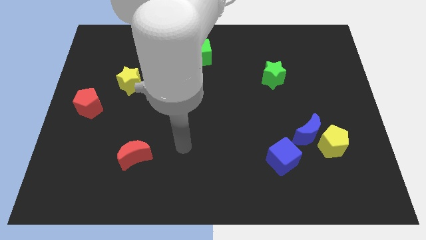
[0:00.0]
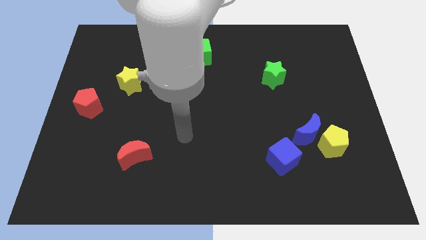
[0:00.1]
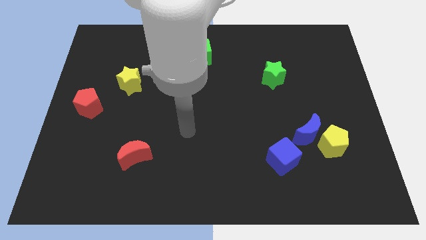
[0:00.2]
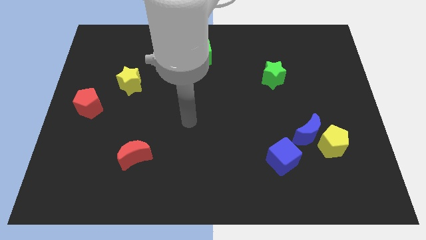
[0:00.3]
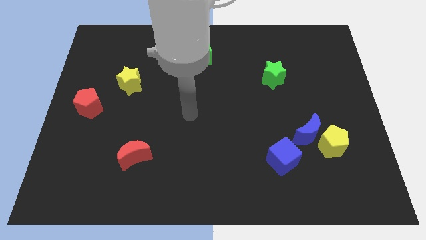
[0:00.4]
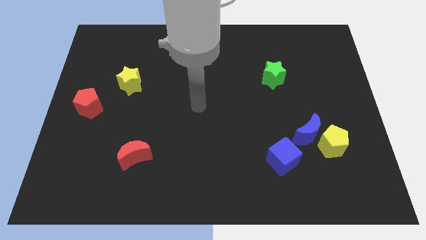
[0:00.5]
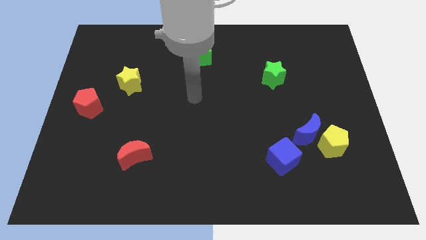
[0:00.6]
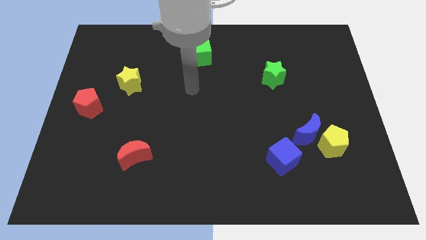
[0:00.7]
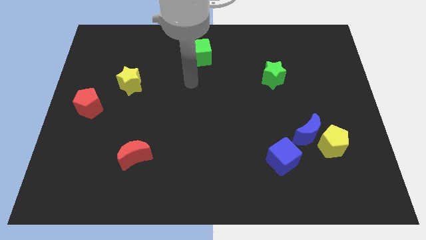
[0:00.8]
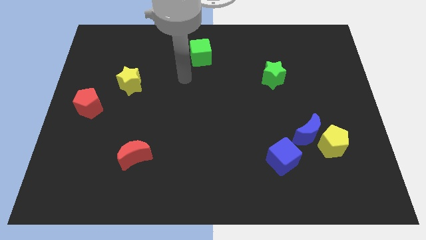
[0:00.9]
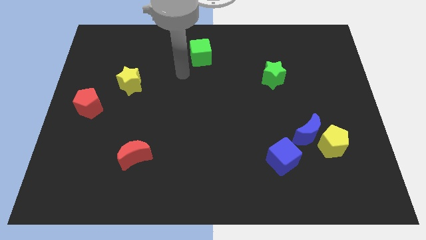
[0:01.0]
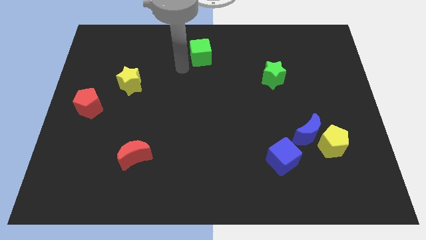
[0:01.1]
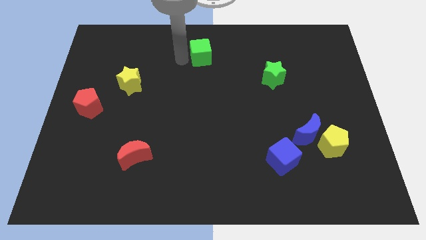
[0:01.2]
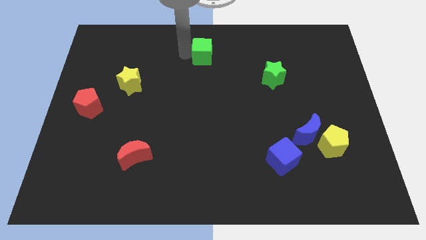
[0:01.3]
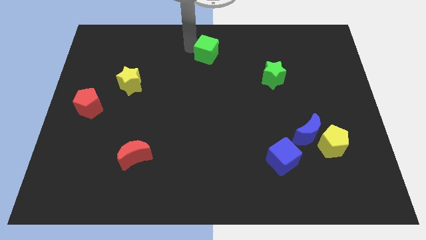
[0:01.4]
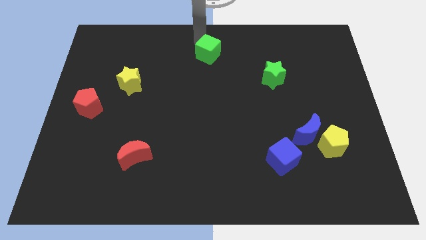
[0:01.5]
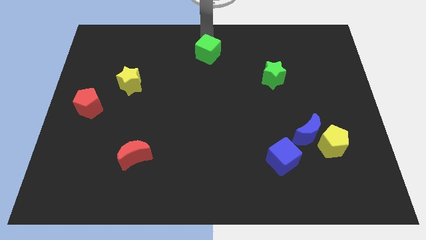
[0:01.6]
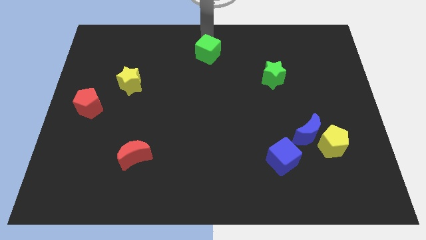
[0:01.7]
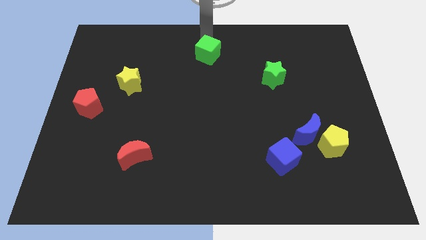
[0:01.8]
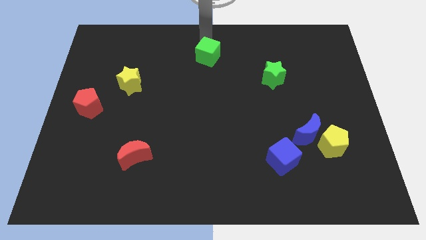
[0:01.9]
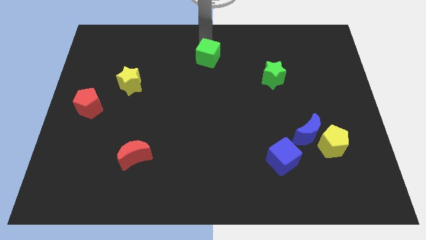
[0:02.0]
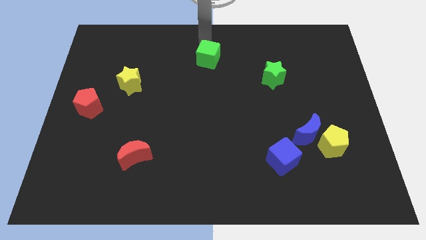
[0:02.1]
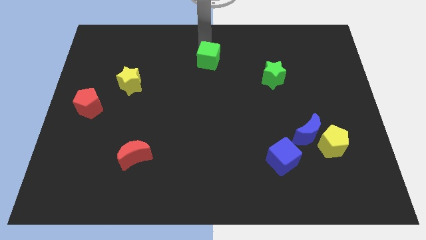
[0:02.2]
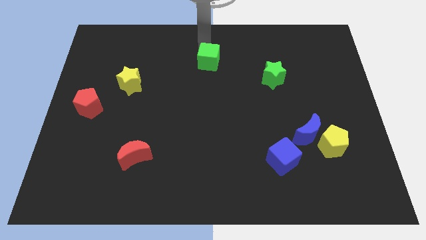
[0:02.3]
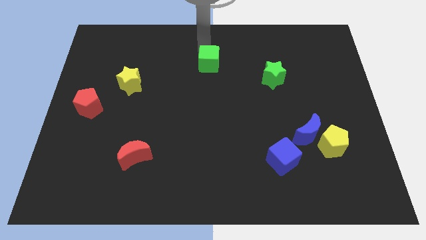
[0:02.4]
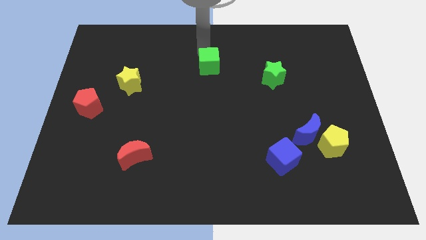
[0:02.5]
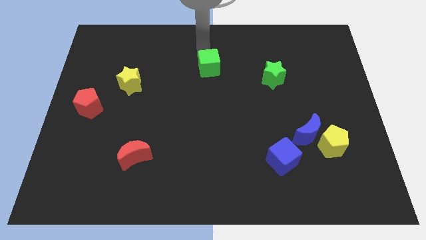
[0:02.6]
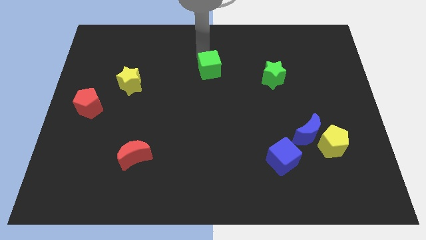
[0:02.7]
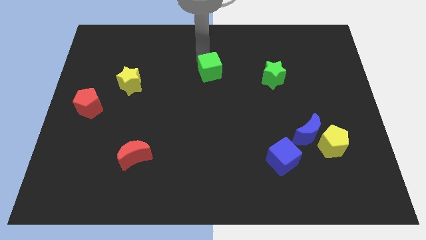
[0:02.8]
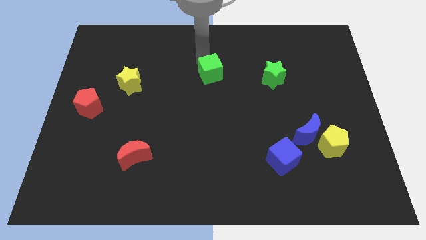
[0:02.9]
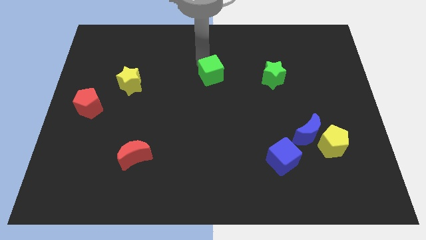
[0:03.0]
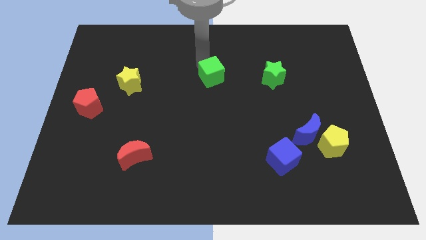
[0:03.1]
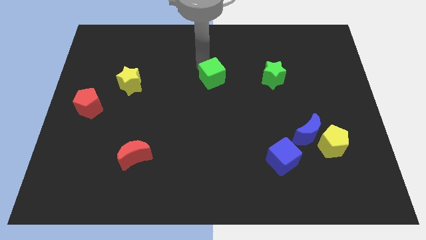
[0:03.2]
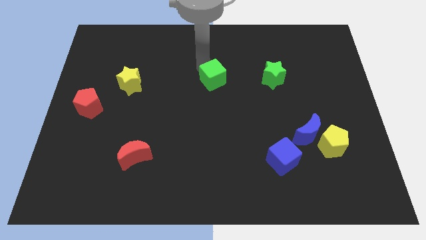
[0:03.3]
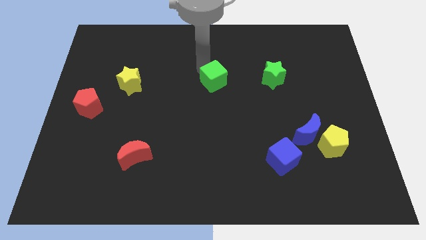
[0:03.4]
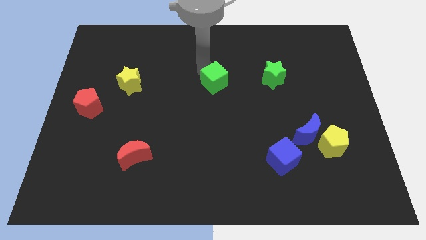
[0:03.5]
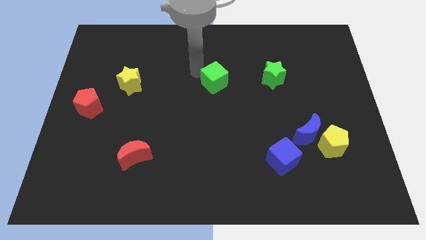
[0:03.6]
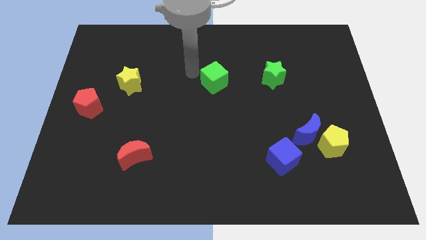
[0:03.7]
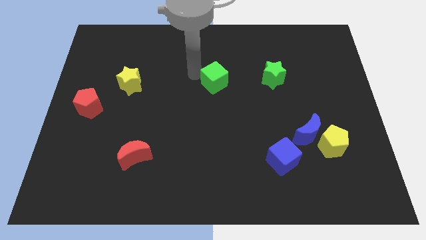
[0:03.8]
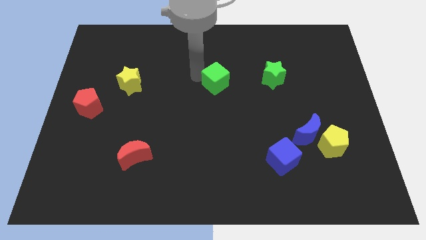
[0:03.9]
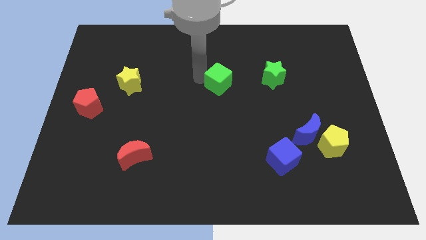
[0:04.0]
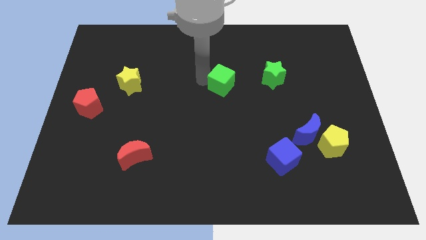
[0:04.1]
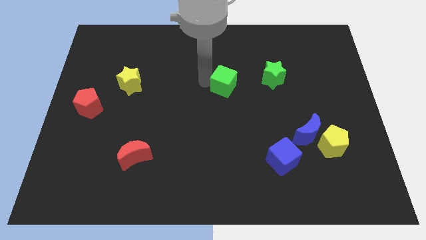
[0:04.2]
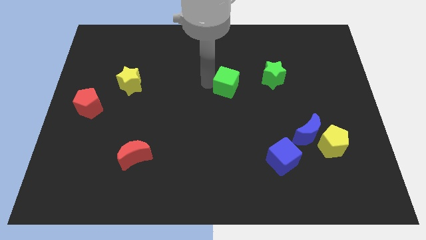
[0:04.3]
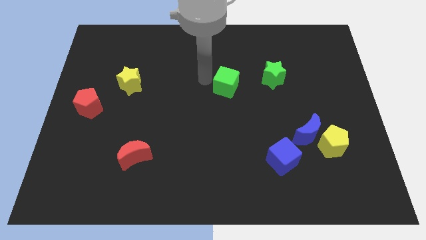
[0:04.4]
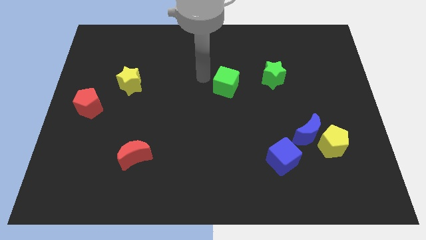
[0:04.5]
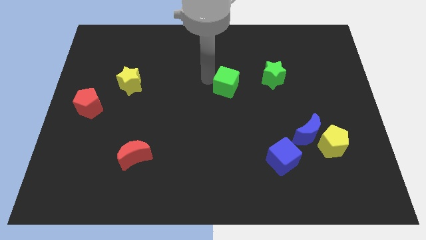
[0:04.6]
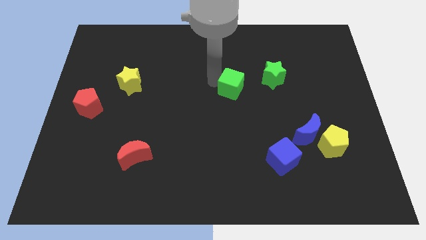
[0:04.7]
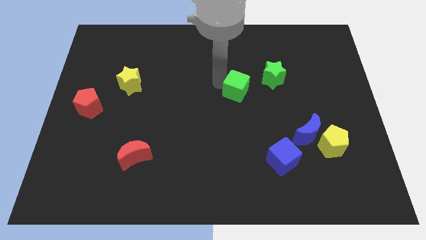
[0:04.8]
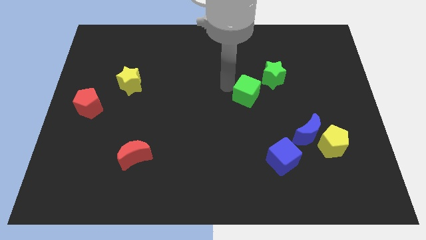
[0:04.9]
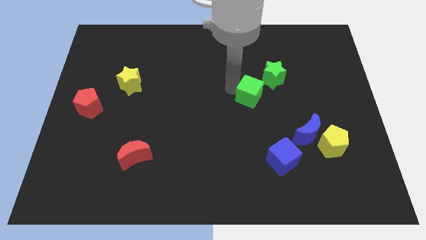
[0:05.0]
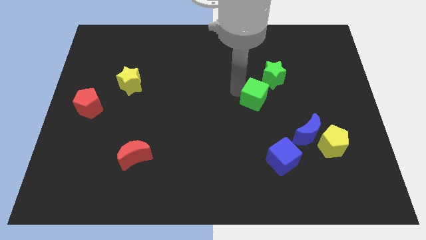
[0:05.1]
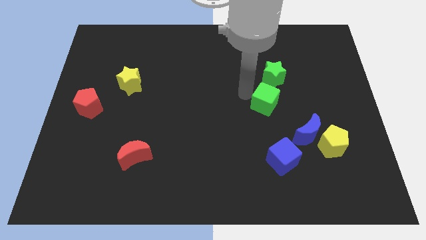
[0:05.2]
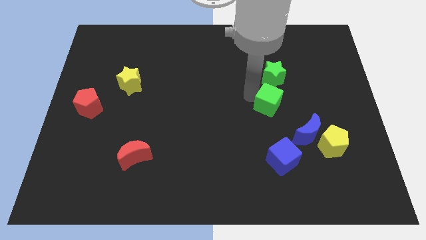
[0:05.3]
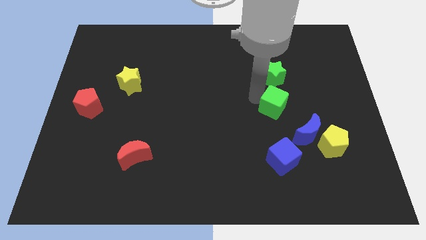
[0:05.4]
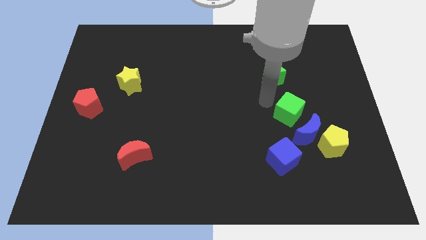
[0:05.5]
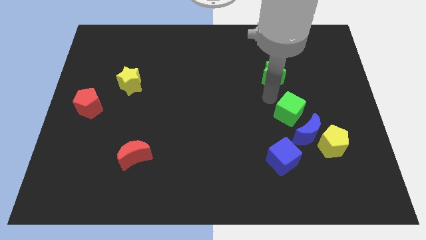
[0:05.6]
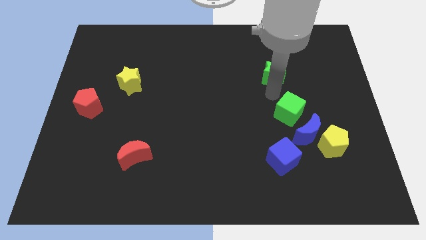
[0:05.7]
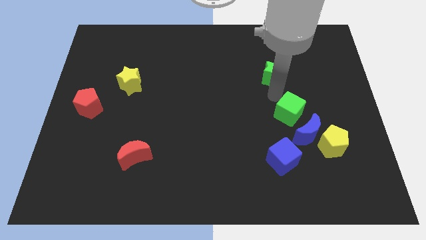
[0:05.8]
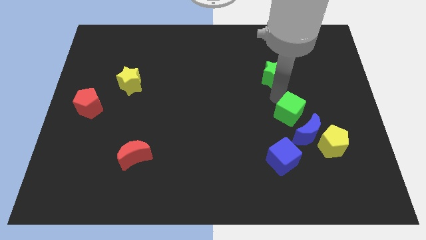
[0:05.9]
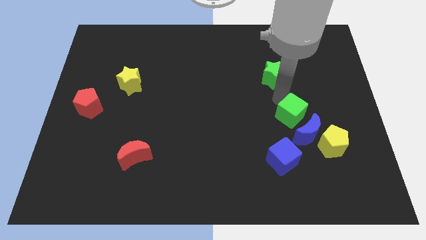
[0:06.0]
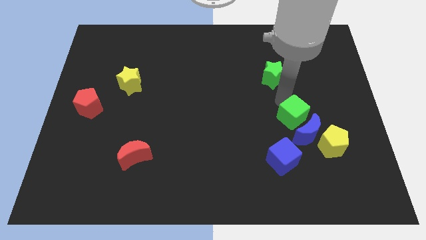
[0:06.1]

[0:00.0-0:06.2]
put the green cube to the blue moon

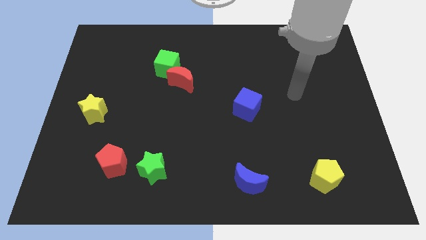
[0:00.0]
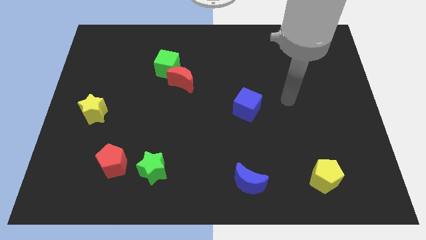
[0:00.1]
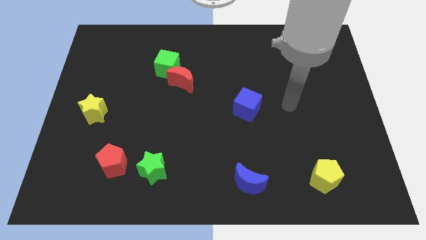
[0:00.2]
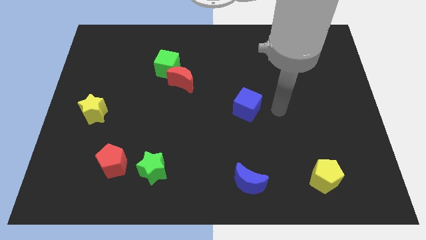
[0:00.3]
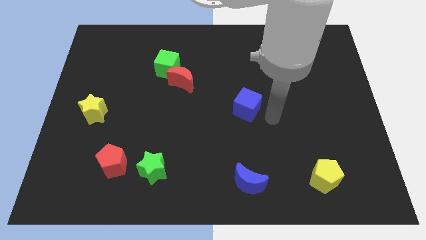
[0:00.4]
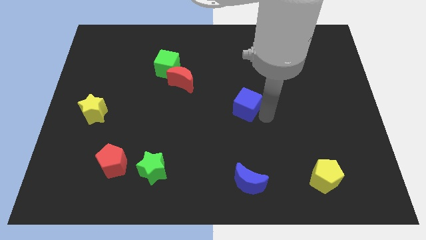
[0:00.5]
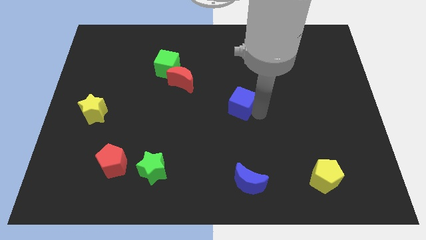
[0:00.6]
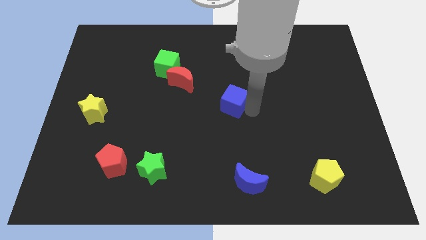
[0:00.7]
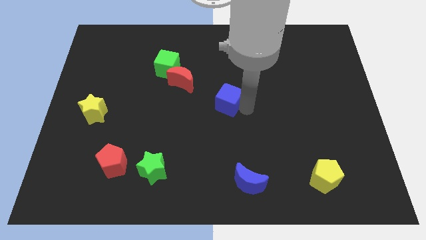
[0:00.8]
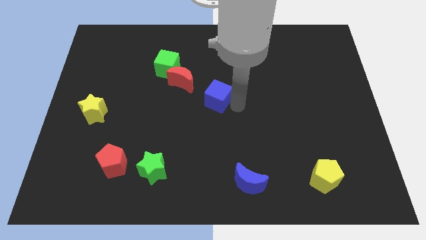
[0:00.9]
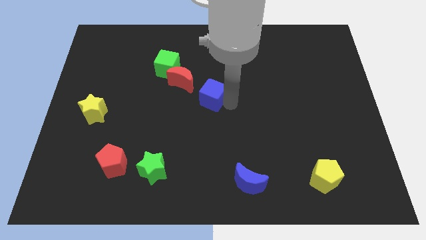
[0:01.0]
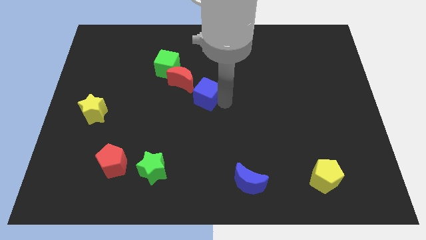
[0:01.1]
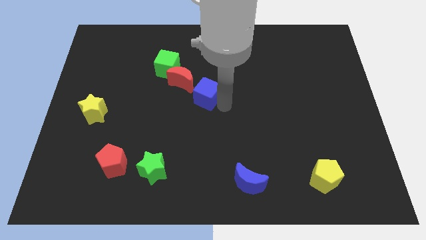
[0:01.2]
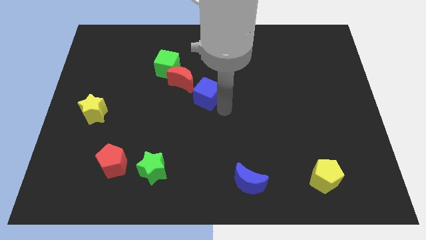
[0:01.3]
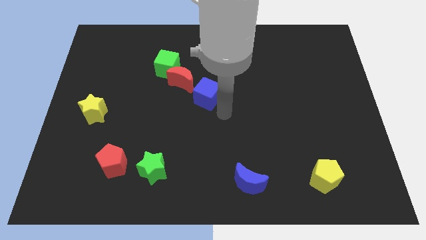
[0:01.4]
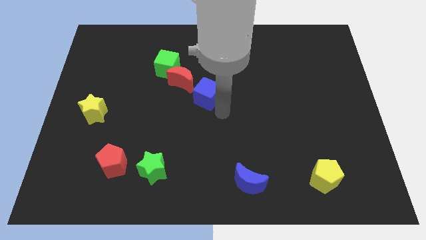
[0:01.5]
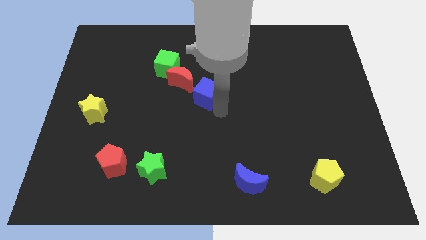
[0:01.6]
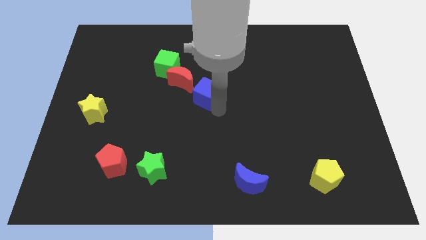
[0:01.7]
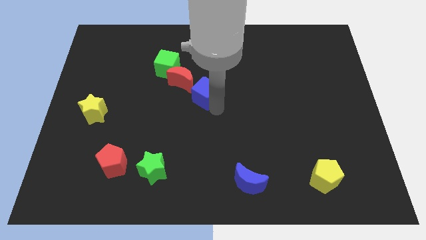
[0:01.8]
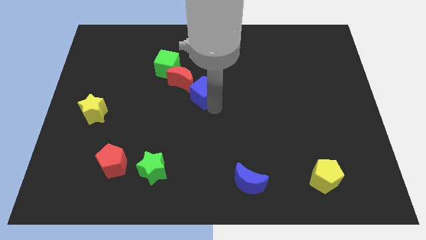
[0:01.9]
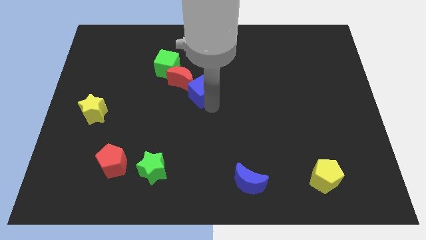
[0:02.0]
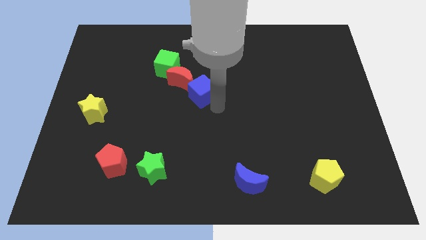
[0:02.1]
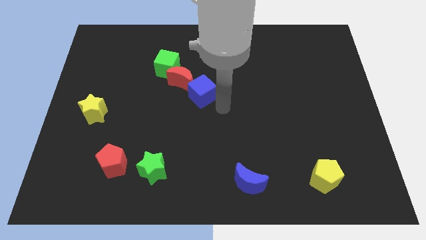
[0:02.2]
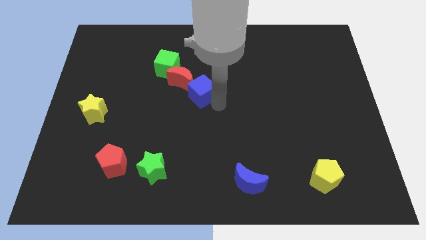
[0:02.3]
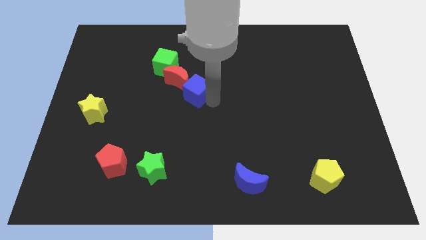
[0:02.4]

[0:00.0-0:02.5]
push the blue cube to the red moon
